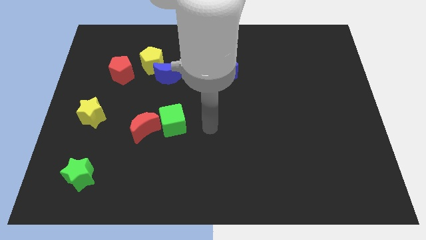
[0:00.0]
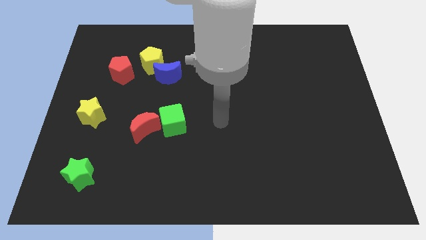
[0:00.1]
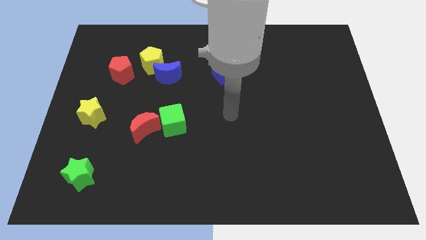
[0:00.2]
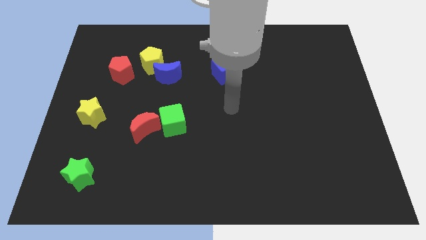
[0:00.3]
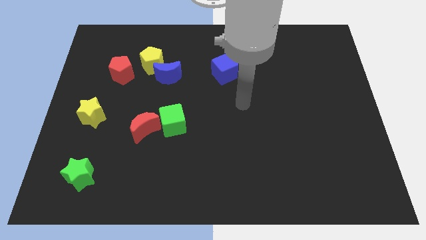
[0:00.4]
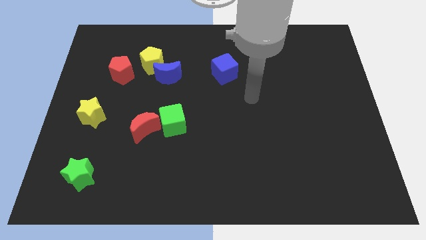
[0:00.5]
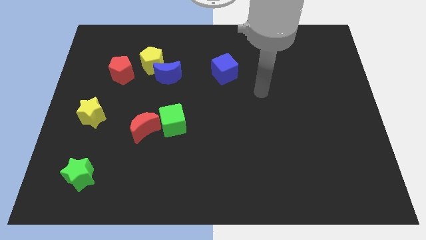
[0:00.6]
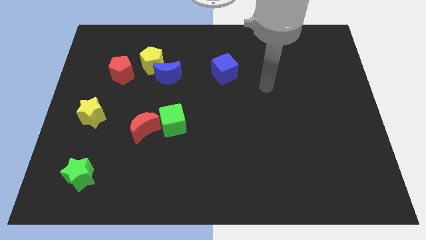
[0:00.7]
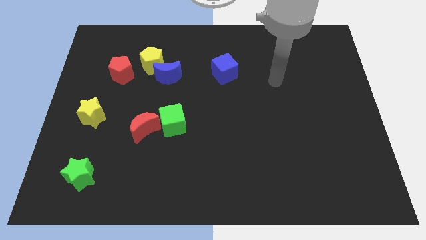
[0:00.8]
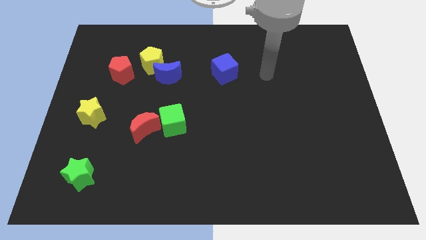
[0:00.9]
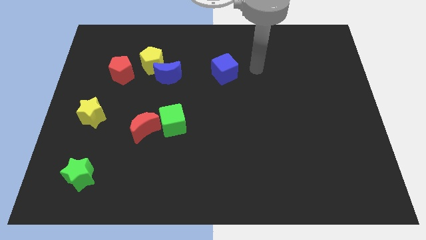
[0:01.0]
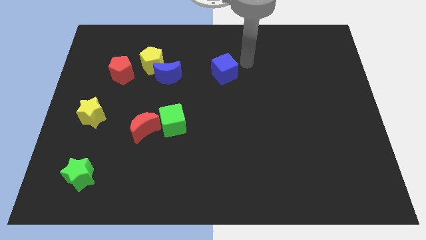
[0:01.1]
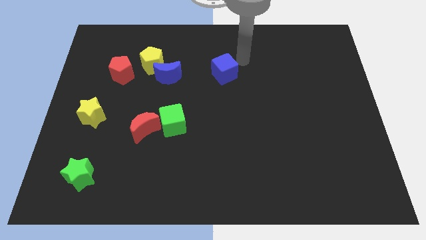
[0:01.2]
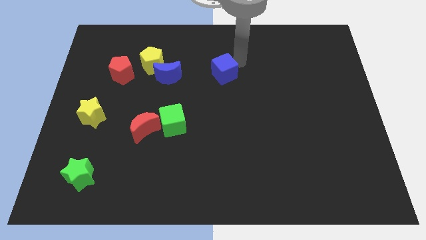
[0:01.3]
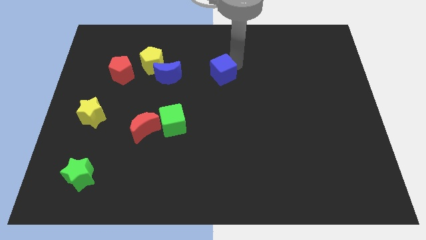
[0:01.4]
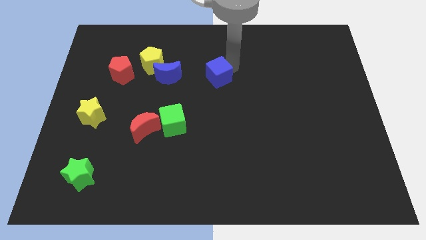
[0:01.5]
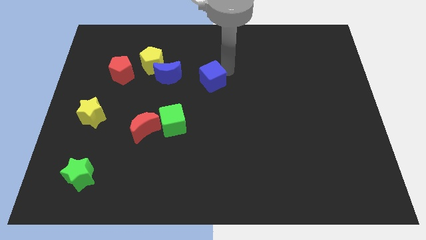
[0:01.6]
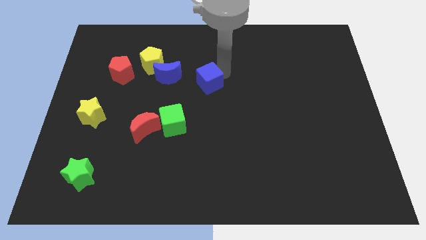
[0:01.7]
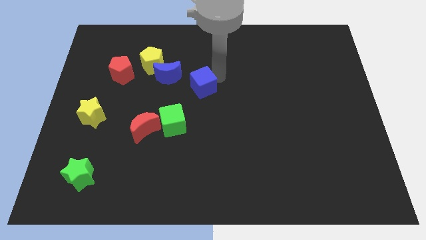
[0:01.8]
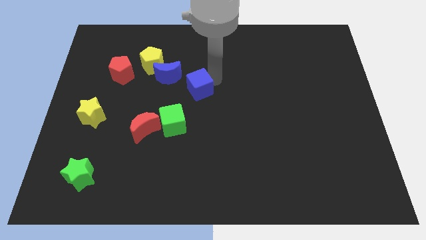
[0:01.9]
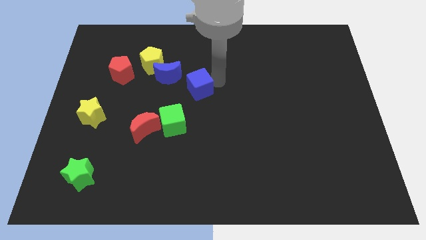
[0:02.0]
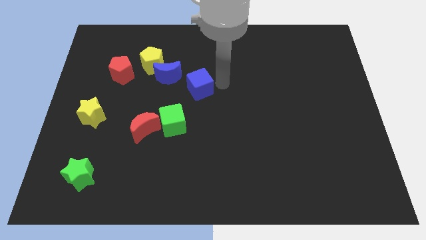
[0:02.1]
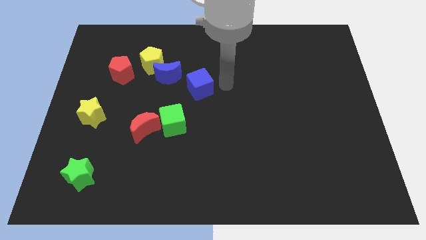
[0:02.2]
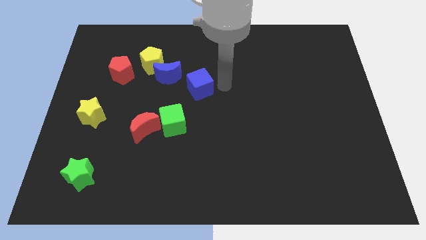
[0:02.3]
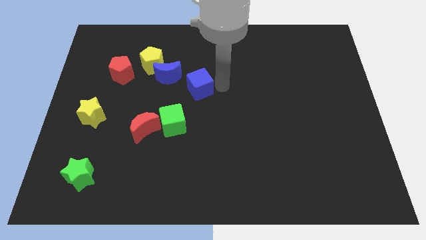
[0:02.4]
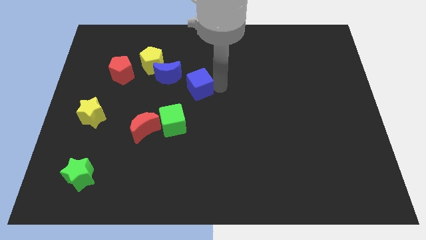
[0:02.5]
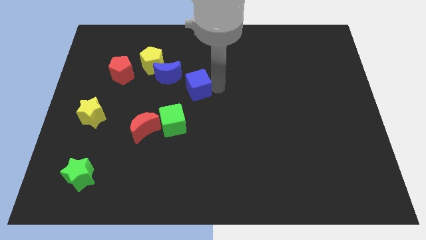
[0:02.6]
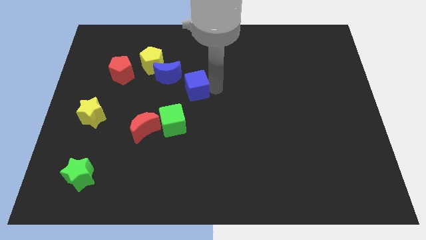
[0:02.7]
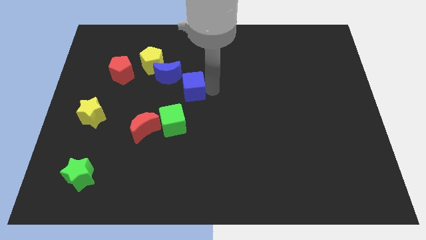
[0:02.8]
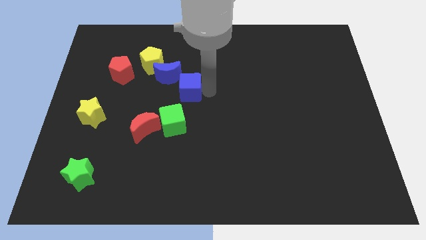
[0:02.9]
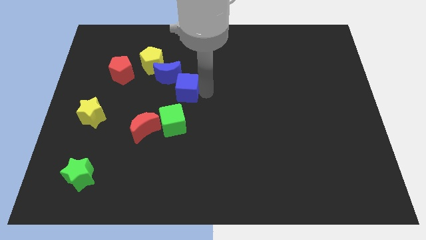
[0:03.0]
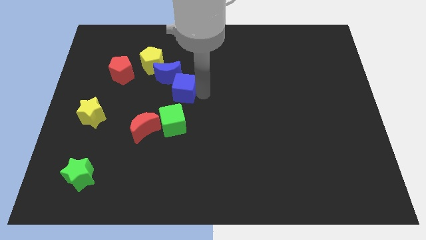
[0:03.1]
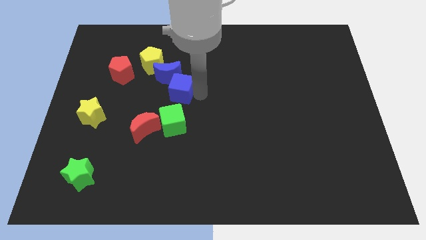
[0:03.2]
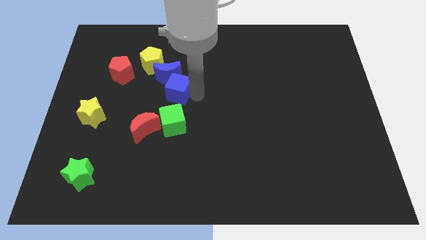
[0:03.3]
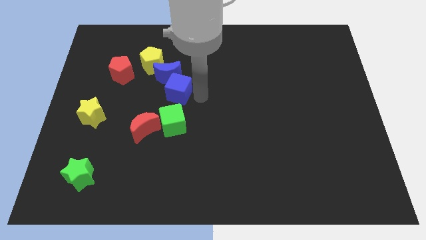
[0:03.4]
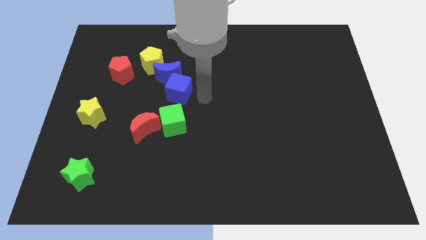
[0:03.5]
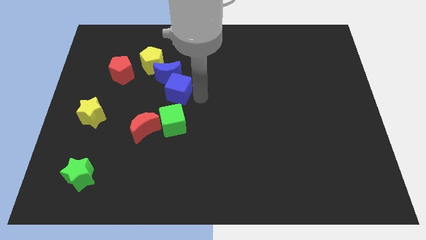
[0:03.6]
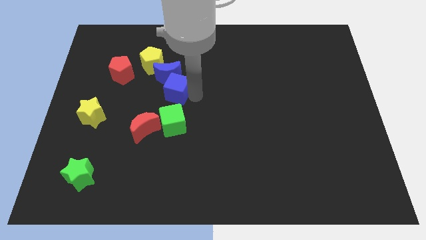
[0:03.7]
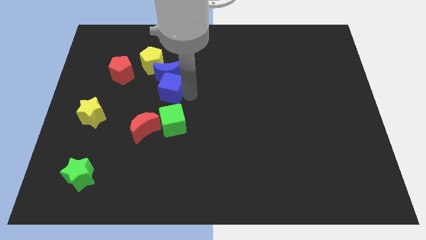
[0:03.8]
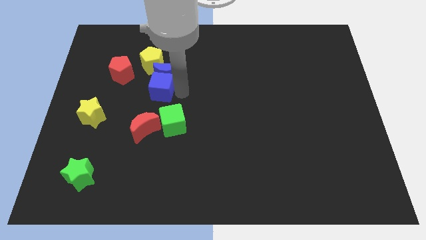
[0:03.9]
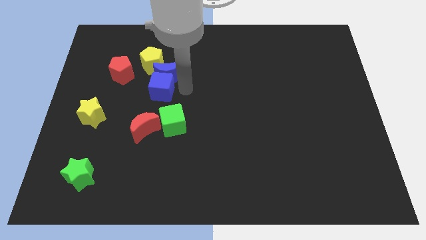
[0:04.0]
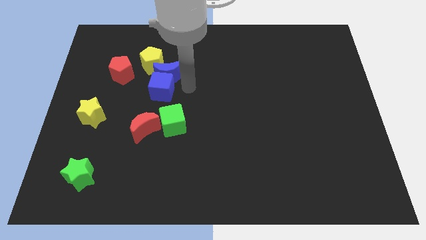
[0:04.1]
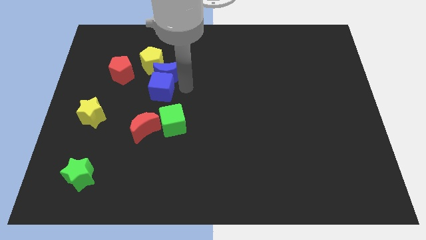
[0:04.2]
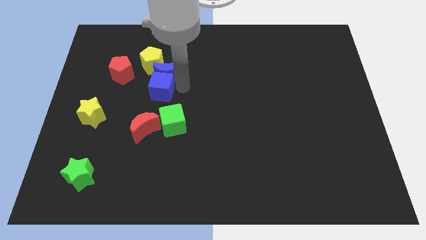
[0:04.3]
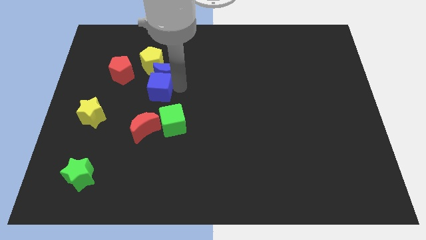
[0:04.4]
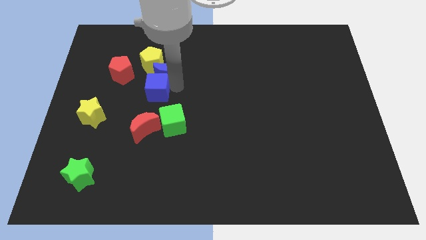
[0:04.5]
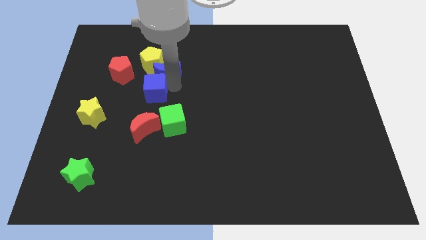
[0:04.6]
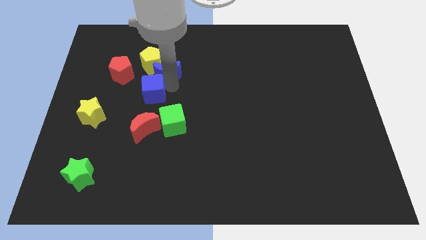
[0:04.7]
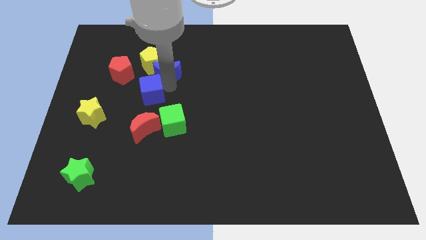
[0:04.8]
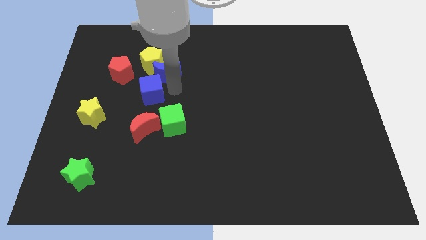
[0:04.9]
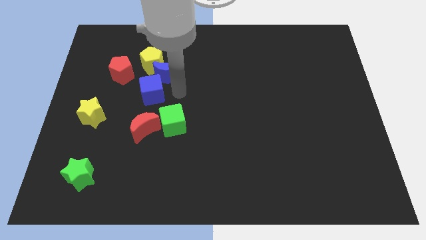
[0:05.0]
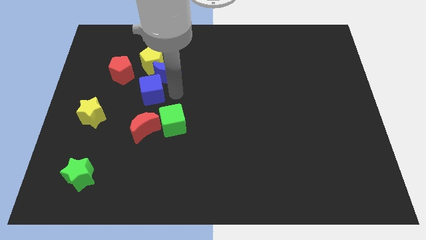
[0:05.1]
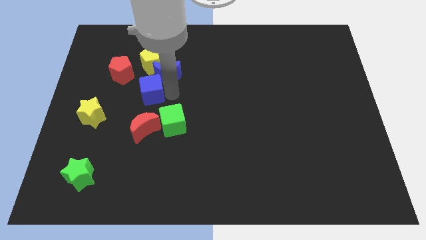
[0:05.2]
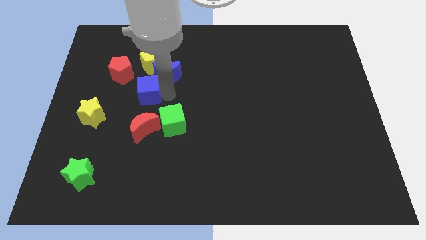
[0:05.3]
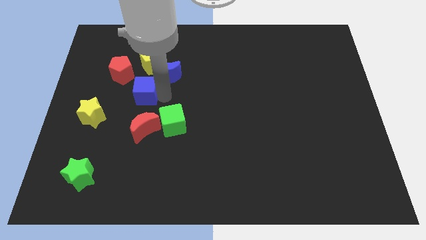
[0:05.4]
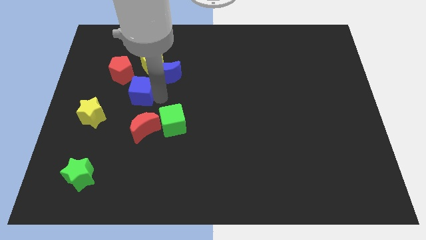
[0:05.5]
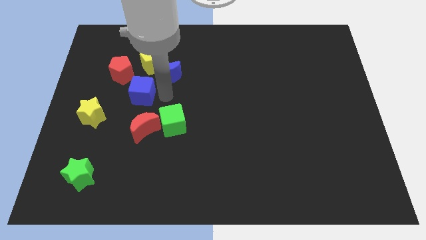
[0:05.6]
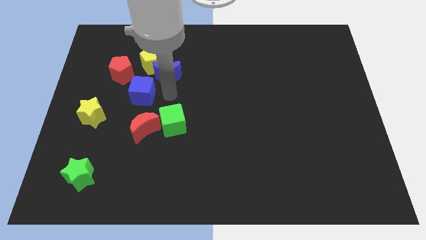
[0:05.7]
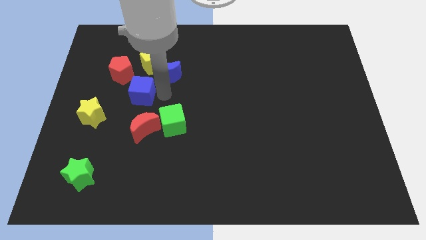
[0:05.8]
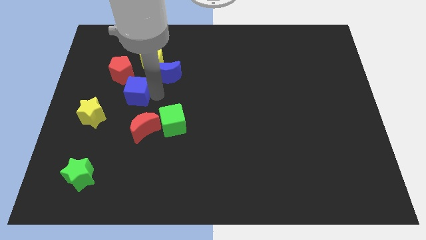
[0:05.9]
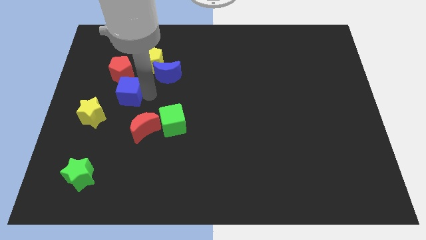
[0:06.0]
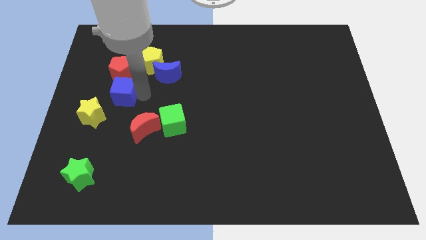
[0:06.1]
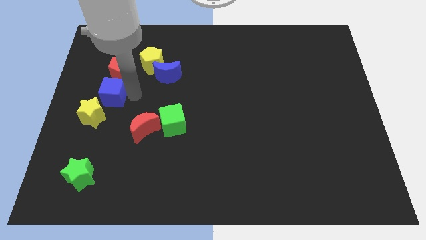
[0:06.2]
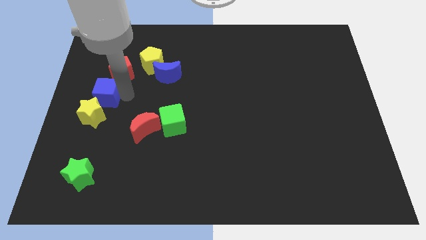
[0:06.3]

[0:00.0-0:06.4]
push the blue cube to the left side of the board

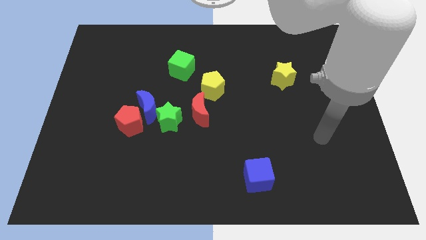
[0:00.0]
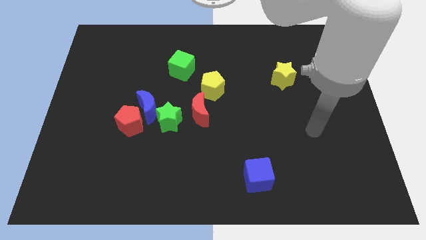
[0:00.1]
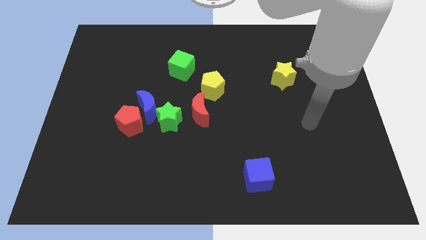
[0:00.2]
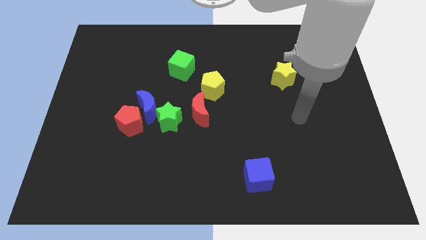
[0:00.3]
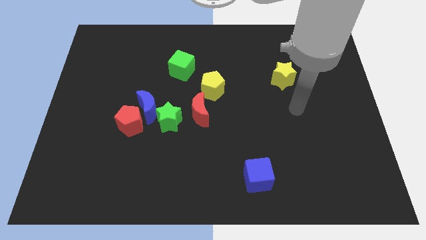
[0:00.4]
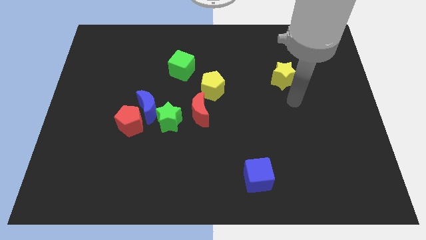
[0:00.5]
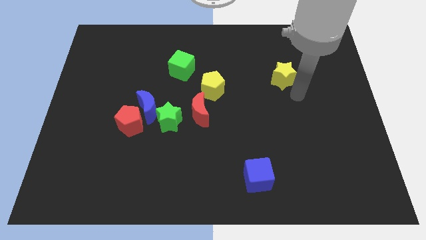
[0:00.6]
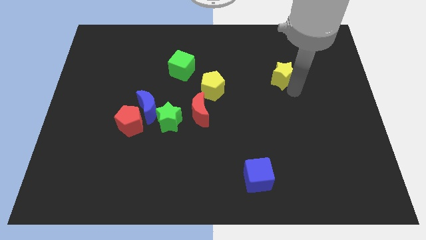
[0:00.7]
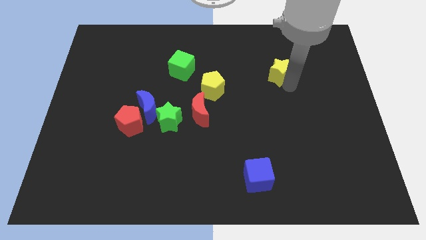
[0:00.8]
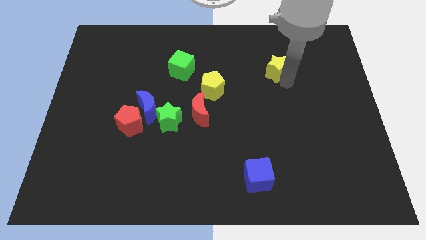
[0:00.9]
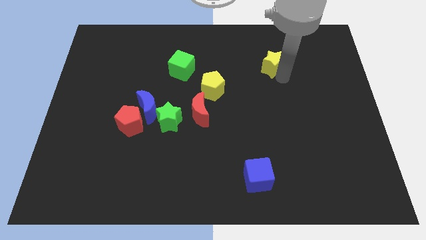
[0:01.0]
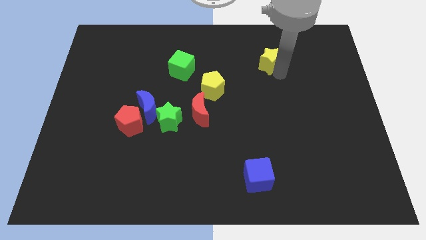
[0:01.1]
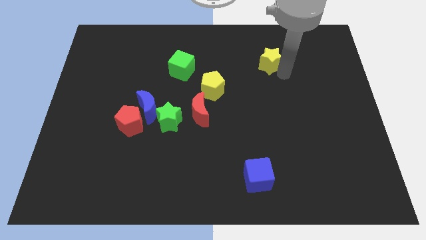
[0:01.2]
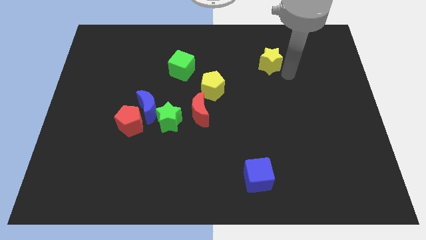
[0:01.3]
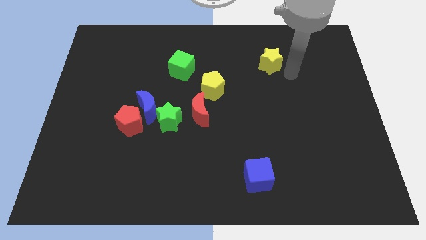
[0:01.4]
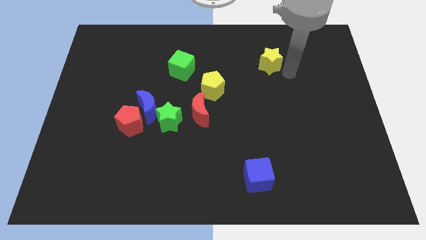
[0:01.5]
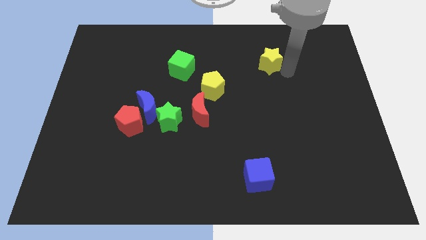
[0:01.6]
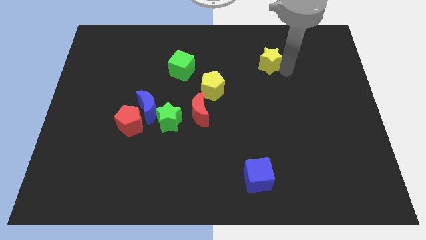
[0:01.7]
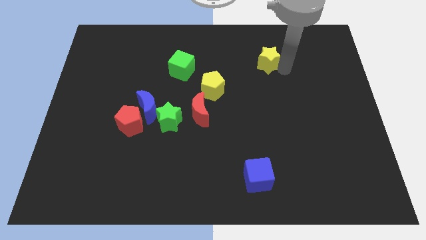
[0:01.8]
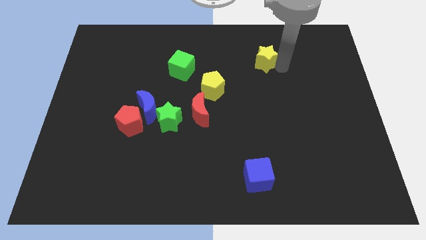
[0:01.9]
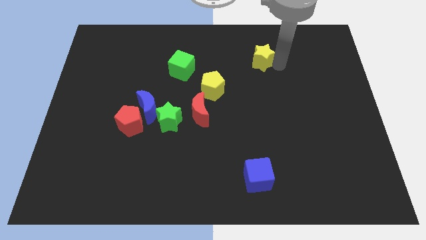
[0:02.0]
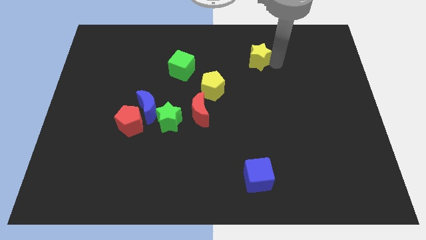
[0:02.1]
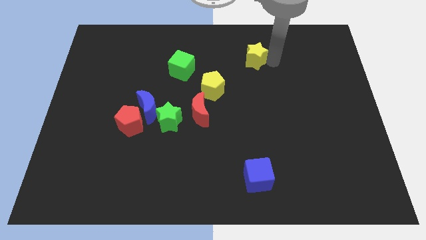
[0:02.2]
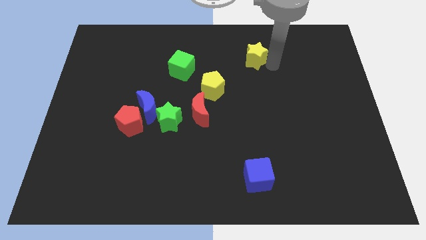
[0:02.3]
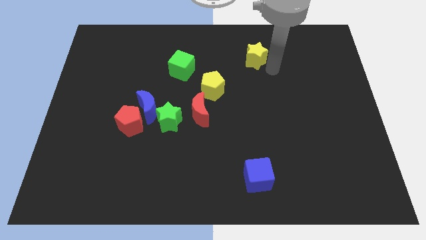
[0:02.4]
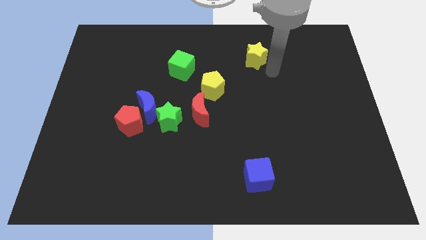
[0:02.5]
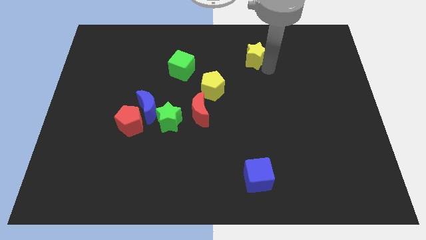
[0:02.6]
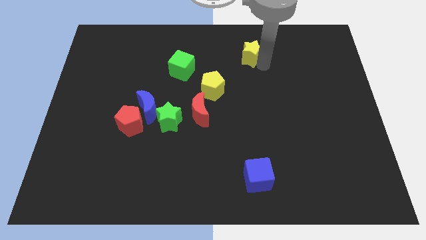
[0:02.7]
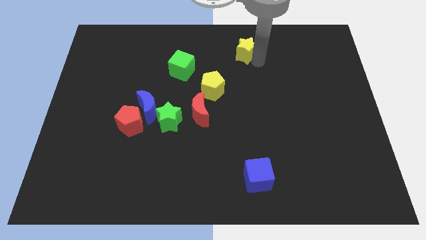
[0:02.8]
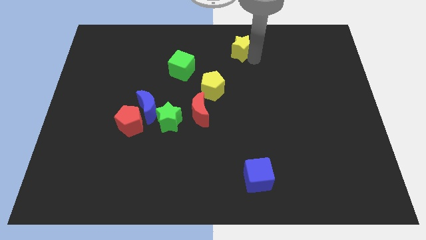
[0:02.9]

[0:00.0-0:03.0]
move the yellow star to the top side
